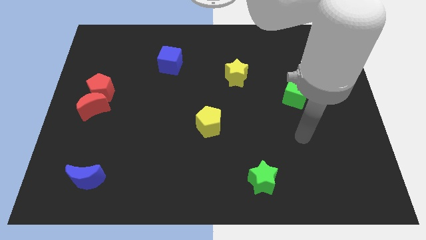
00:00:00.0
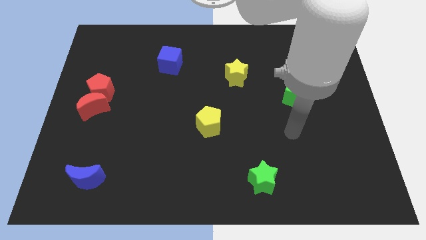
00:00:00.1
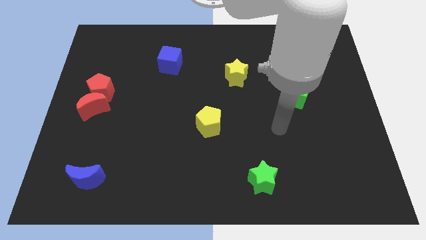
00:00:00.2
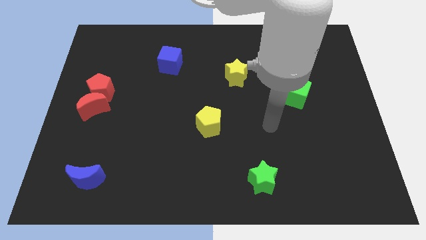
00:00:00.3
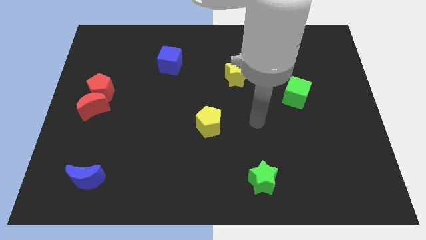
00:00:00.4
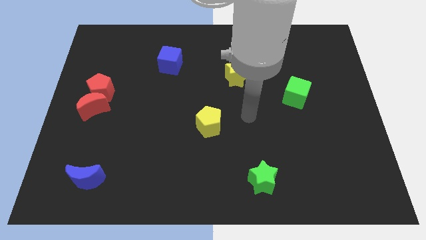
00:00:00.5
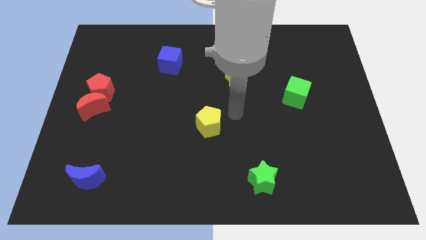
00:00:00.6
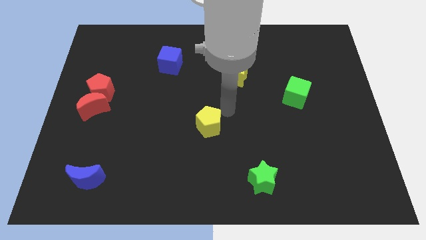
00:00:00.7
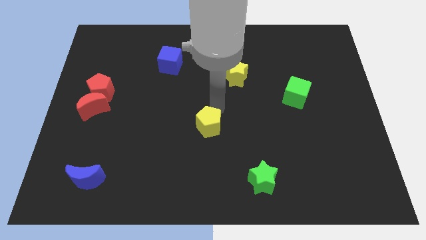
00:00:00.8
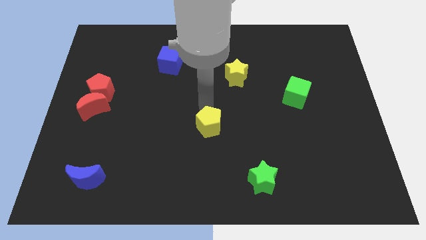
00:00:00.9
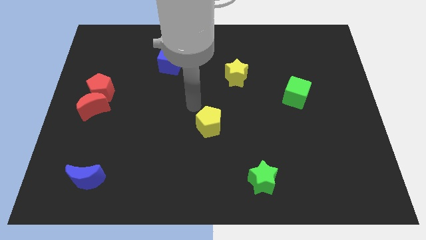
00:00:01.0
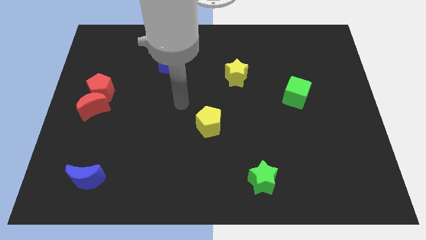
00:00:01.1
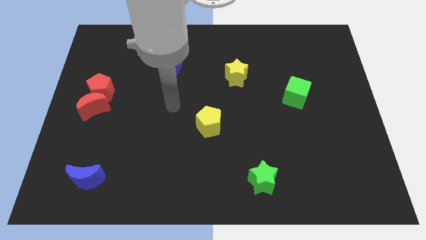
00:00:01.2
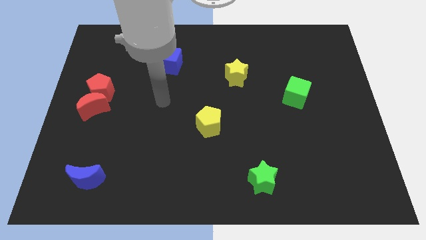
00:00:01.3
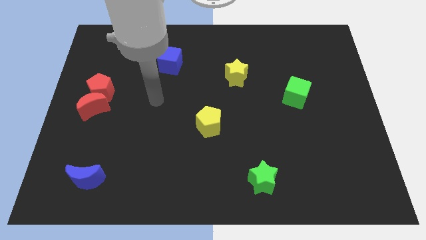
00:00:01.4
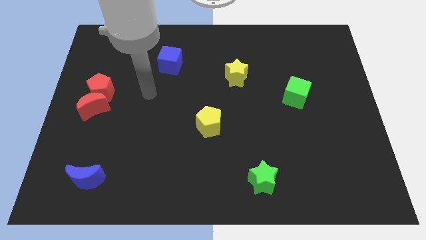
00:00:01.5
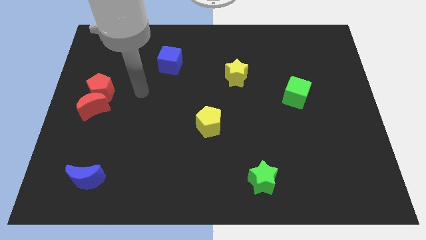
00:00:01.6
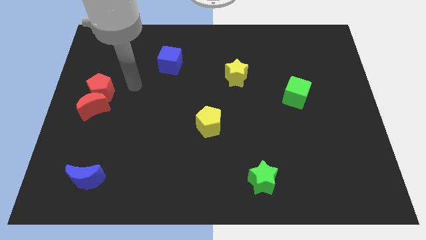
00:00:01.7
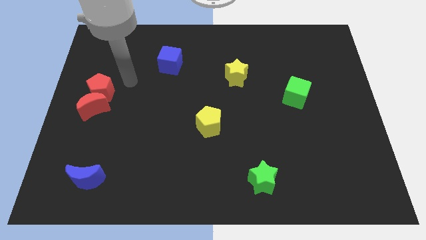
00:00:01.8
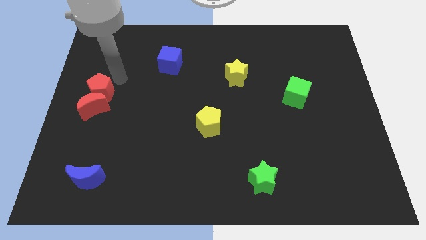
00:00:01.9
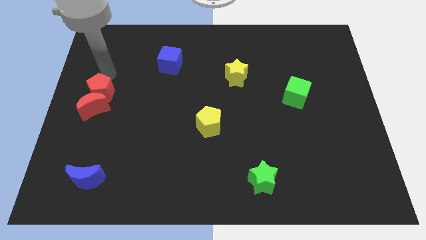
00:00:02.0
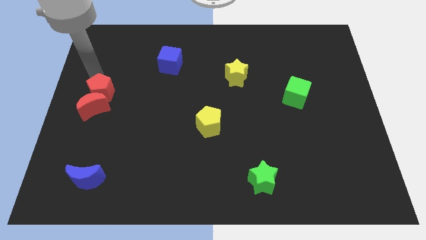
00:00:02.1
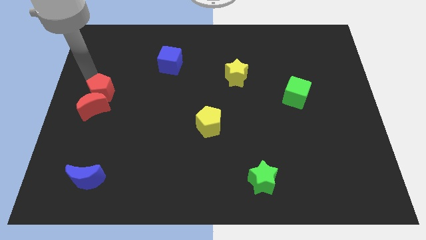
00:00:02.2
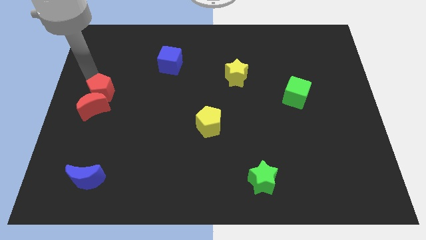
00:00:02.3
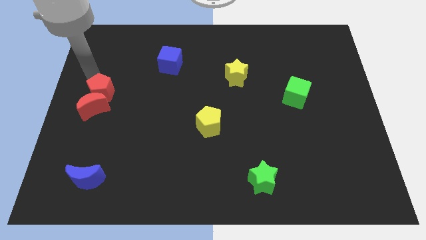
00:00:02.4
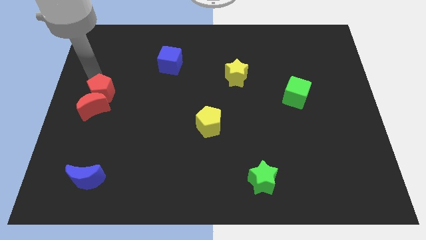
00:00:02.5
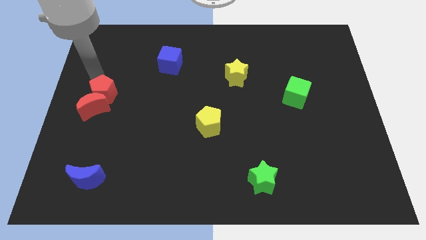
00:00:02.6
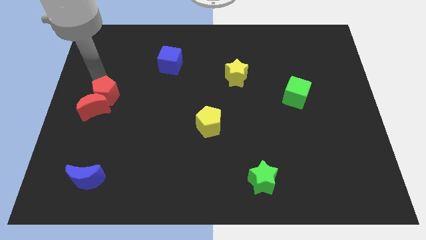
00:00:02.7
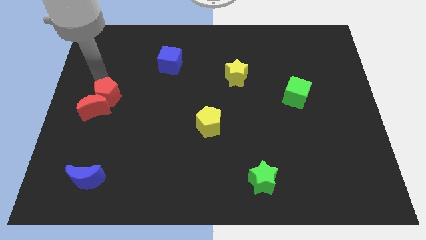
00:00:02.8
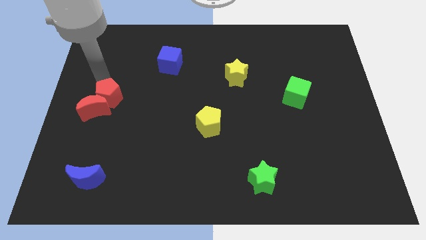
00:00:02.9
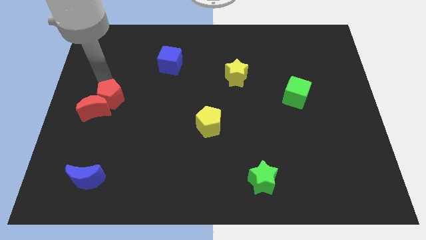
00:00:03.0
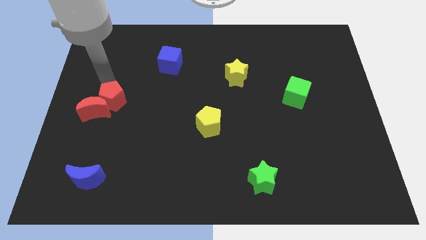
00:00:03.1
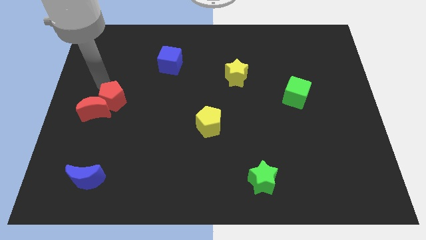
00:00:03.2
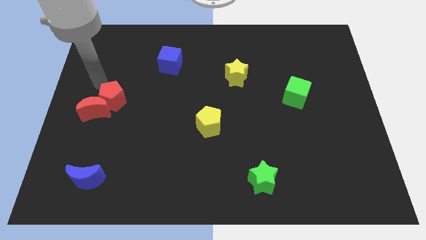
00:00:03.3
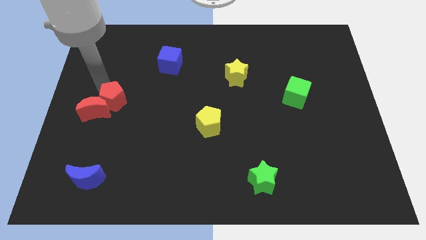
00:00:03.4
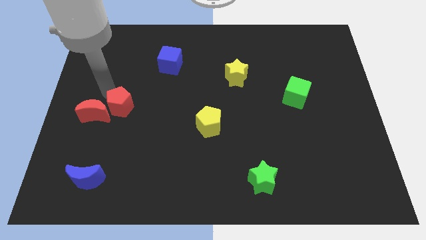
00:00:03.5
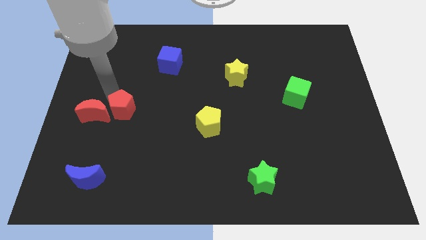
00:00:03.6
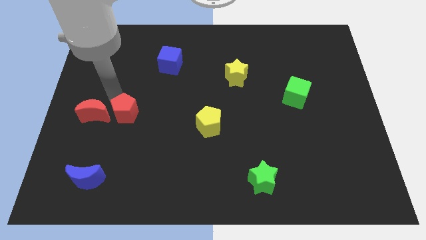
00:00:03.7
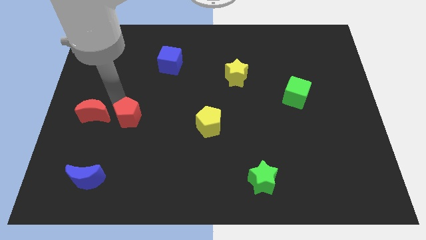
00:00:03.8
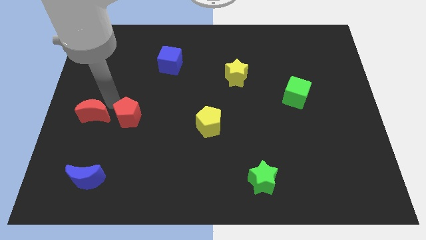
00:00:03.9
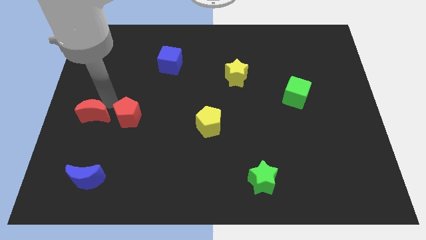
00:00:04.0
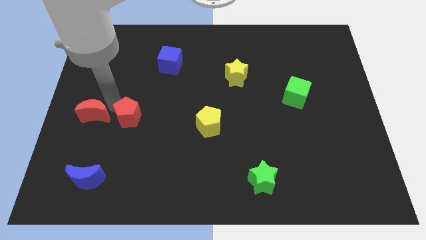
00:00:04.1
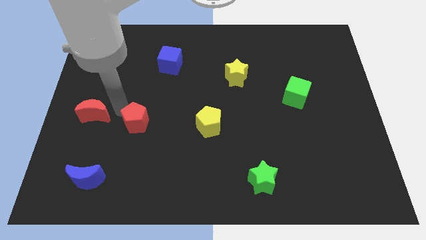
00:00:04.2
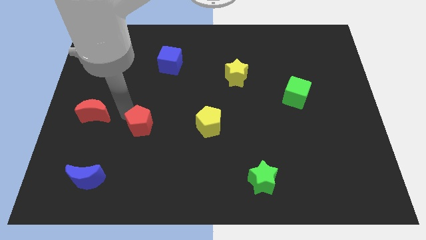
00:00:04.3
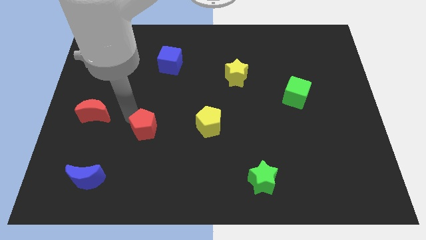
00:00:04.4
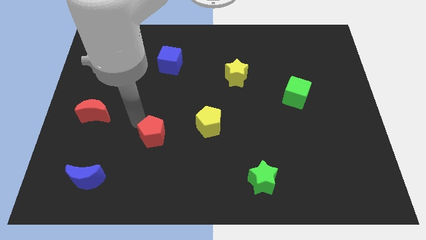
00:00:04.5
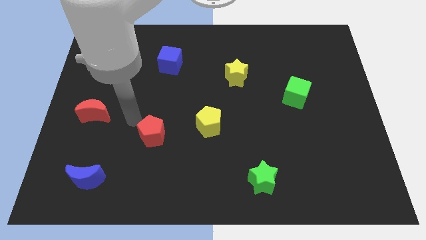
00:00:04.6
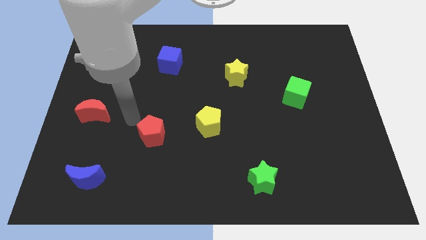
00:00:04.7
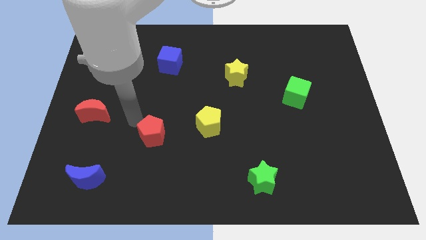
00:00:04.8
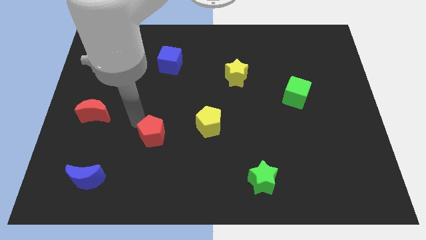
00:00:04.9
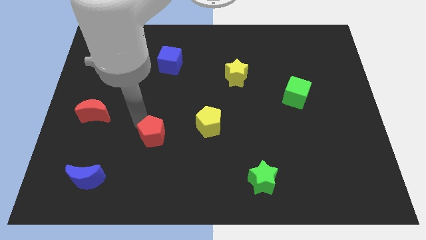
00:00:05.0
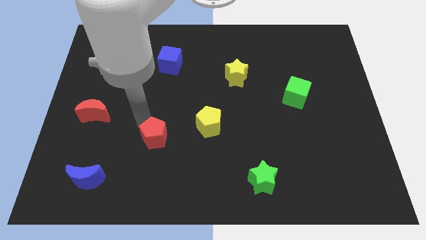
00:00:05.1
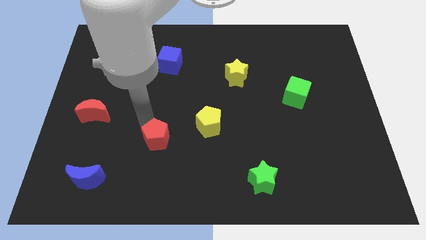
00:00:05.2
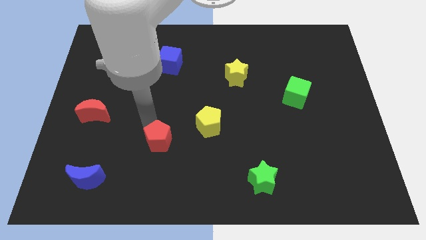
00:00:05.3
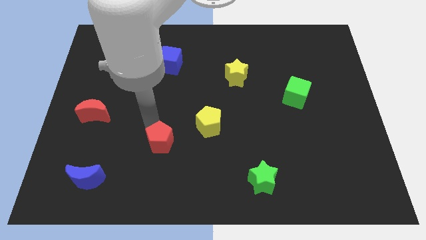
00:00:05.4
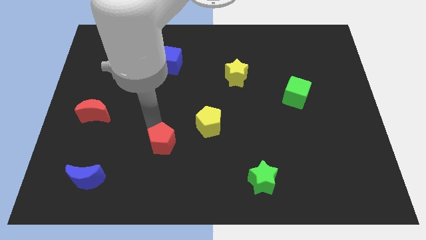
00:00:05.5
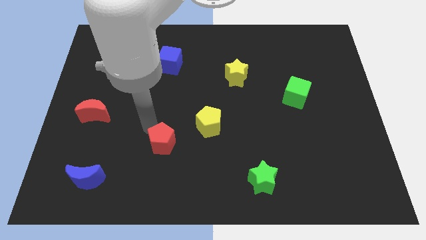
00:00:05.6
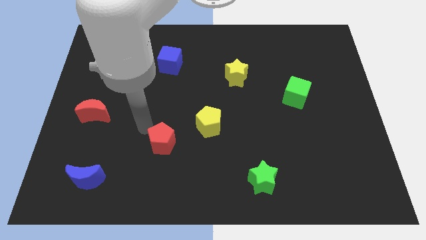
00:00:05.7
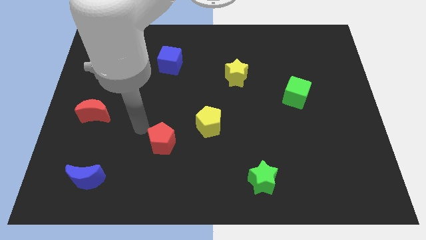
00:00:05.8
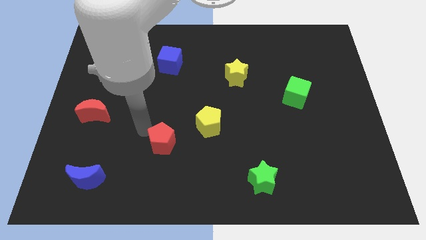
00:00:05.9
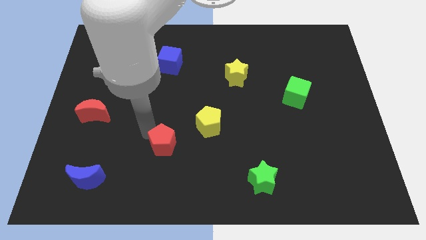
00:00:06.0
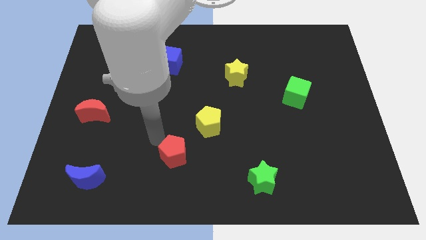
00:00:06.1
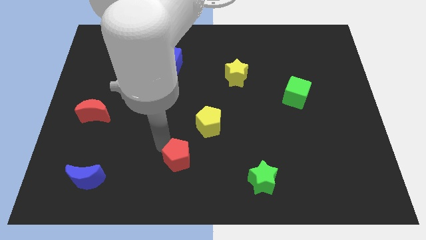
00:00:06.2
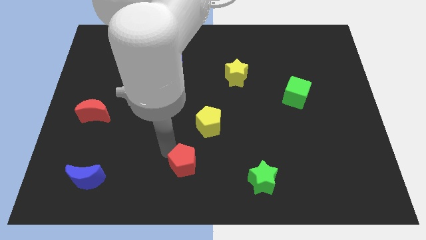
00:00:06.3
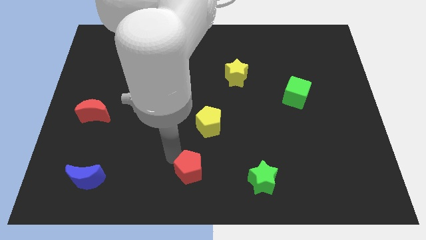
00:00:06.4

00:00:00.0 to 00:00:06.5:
move the red pentagon below the yellow pentagon

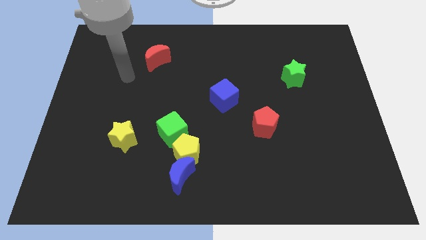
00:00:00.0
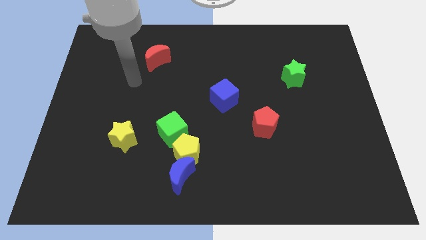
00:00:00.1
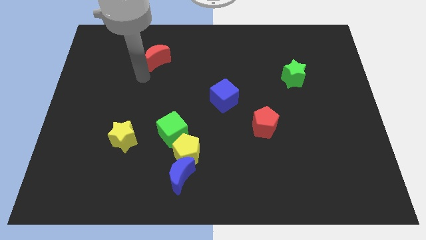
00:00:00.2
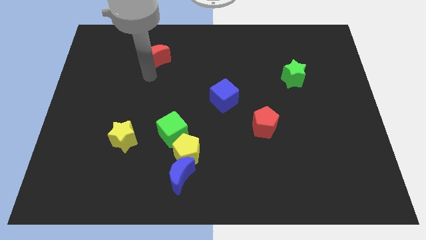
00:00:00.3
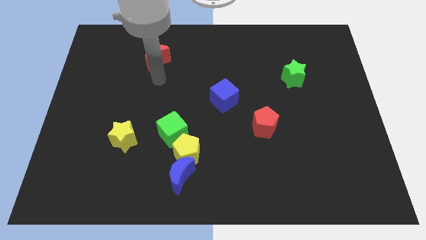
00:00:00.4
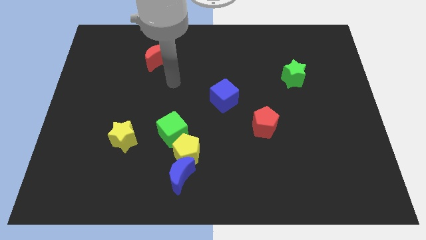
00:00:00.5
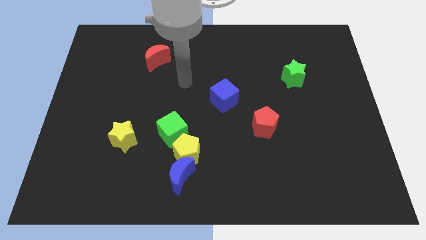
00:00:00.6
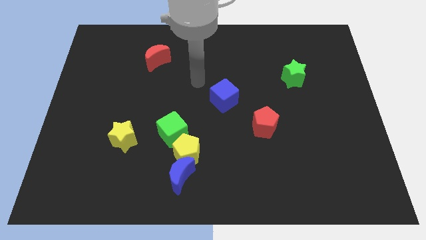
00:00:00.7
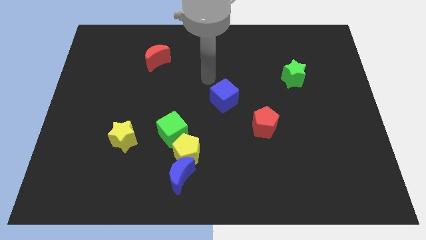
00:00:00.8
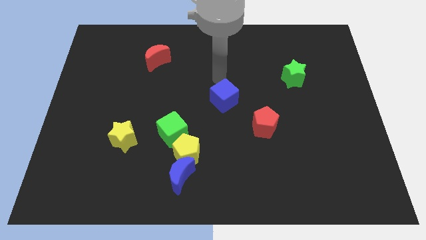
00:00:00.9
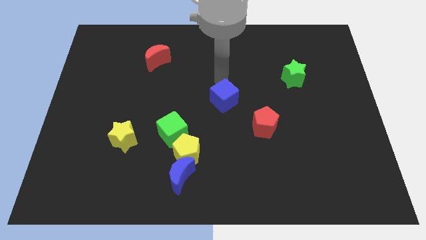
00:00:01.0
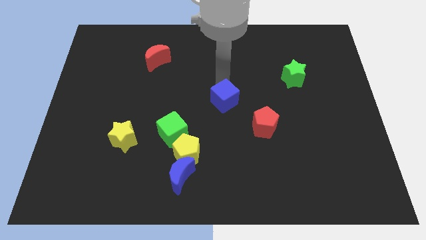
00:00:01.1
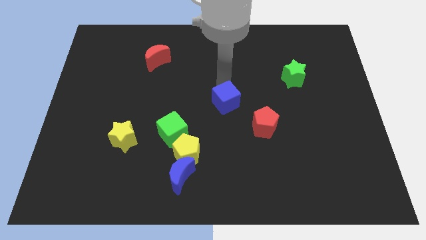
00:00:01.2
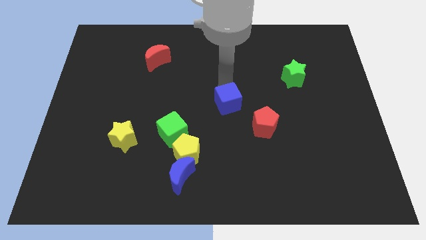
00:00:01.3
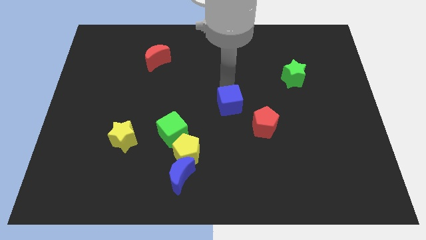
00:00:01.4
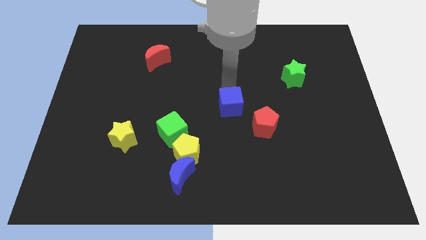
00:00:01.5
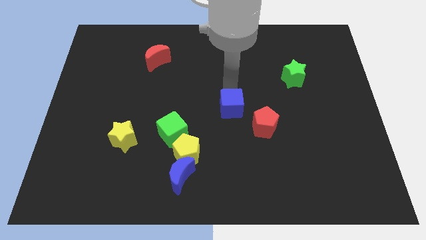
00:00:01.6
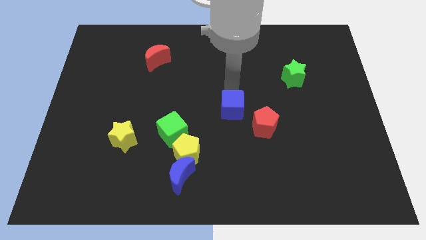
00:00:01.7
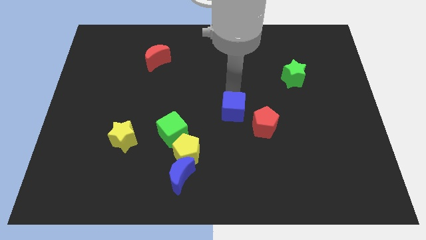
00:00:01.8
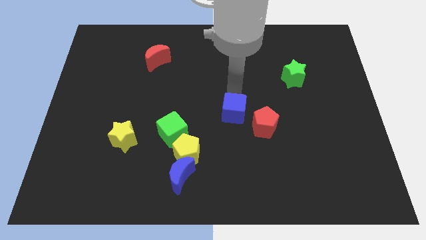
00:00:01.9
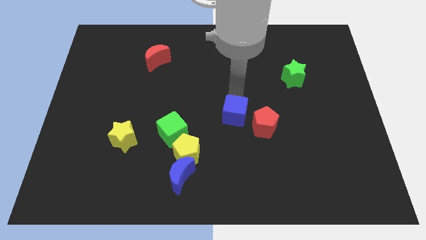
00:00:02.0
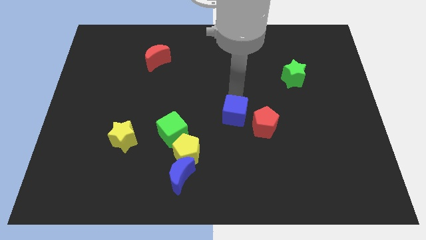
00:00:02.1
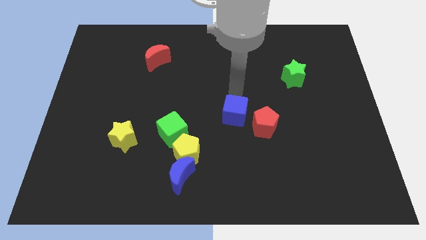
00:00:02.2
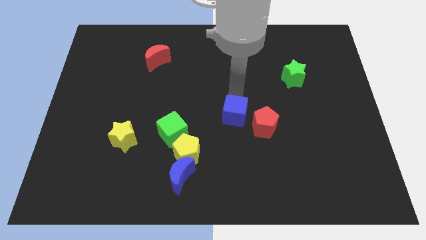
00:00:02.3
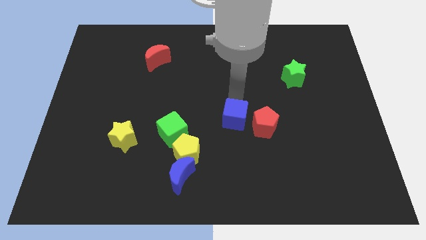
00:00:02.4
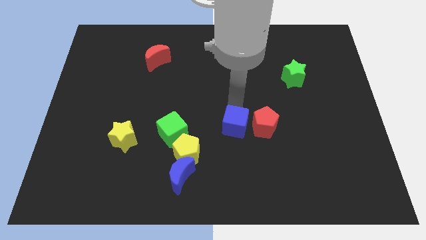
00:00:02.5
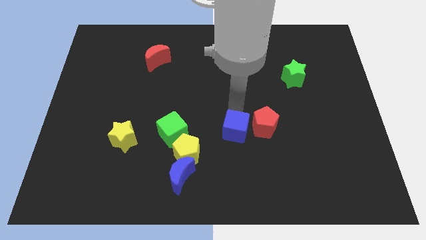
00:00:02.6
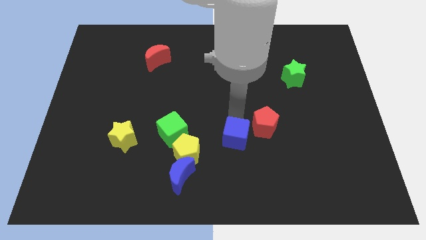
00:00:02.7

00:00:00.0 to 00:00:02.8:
put the blue cube just right of the yellow pentagon
